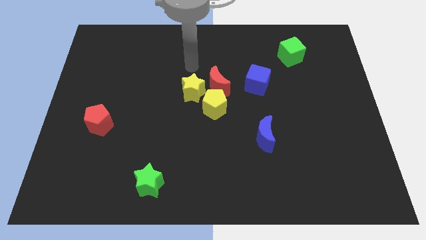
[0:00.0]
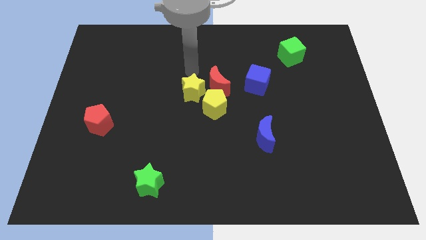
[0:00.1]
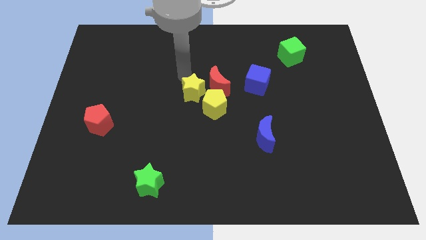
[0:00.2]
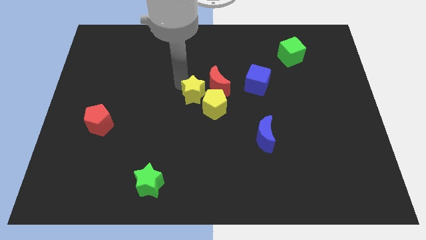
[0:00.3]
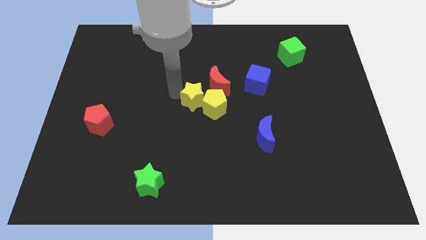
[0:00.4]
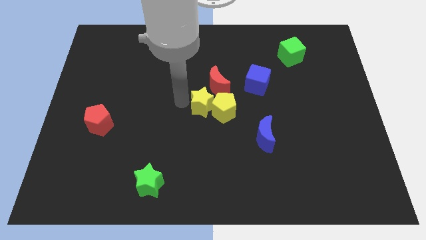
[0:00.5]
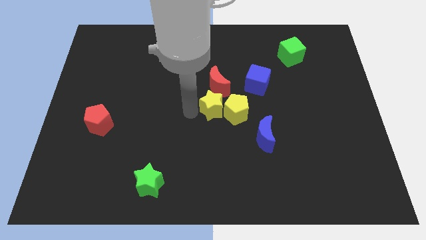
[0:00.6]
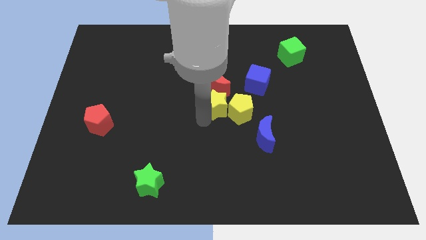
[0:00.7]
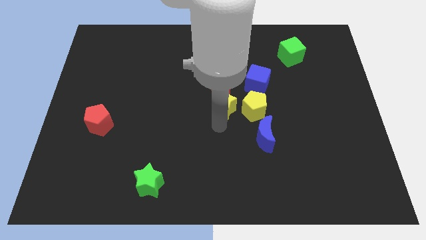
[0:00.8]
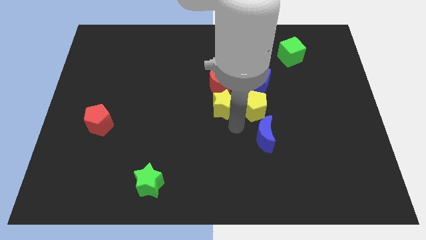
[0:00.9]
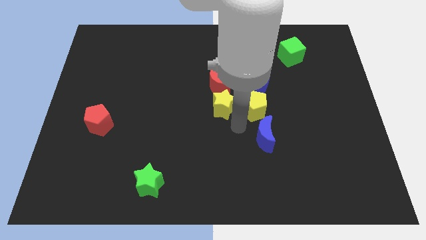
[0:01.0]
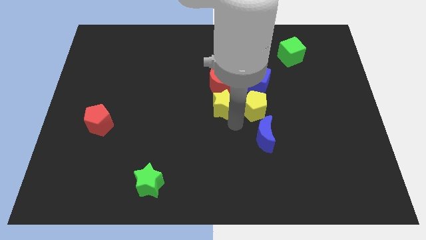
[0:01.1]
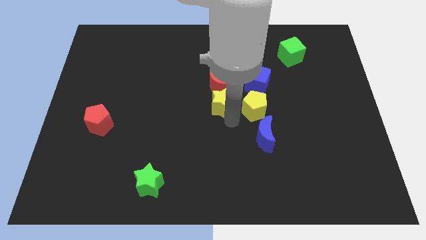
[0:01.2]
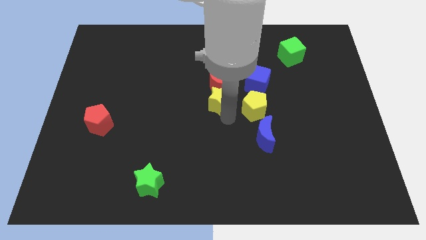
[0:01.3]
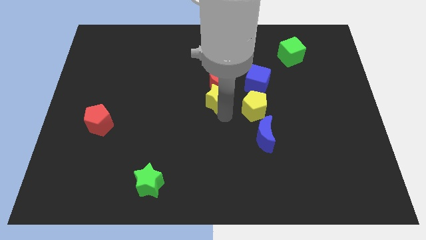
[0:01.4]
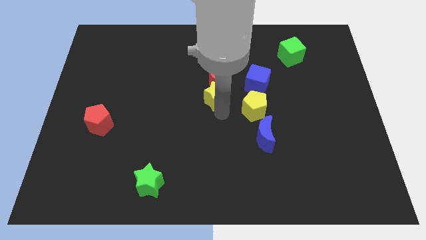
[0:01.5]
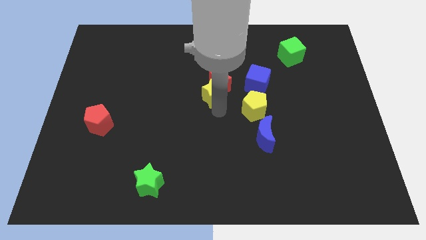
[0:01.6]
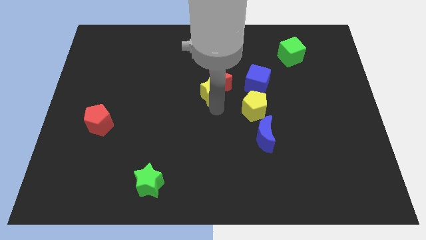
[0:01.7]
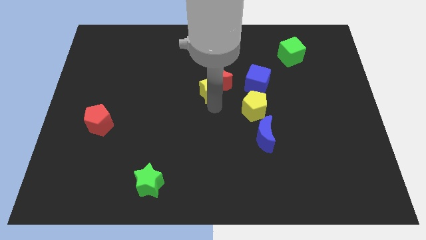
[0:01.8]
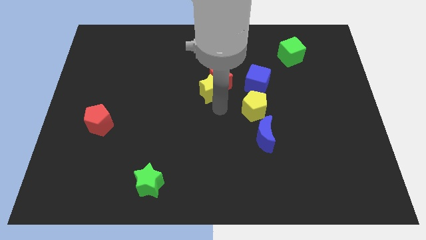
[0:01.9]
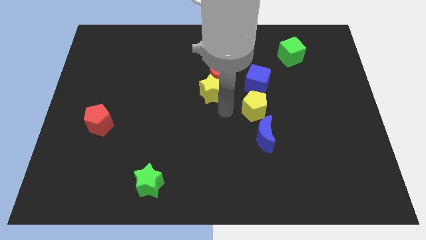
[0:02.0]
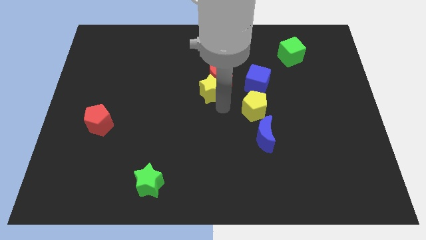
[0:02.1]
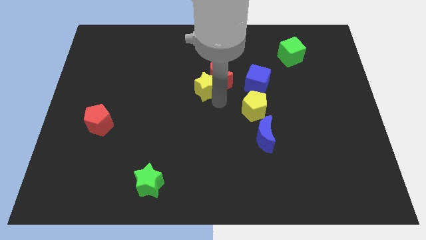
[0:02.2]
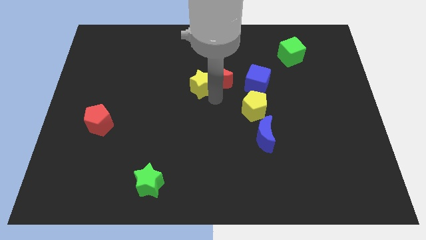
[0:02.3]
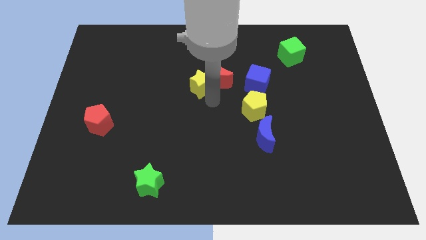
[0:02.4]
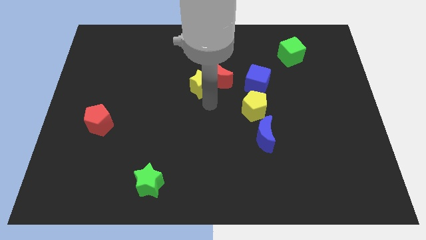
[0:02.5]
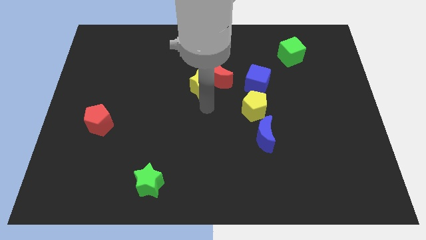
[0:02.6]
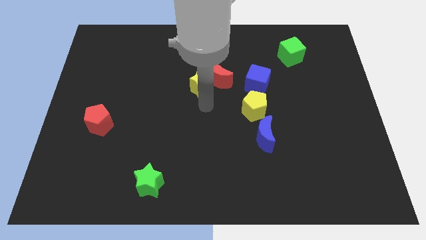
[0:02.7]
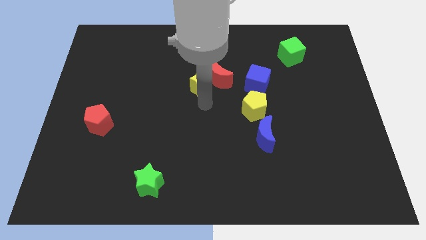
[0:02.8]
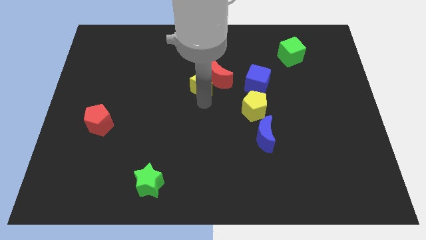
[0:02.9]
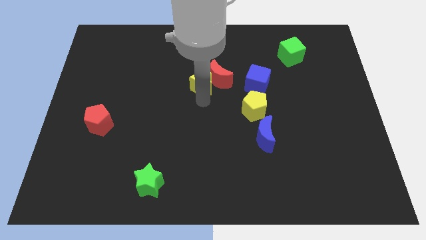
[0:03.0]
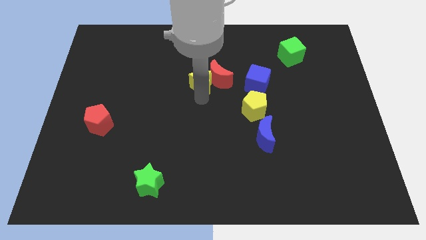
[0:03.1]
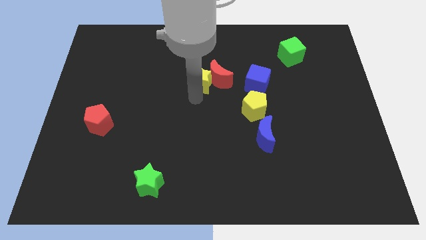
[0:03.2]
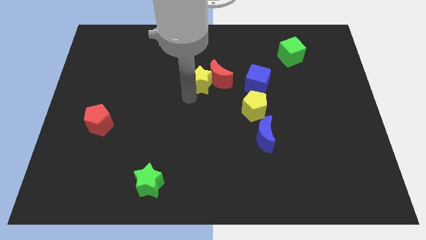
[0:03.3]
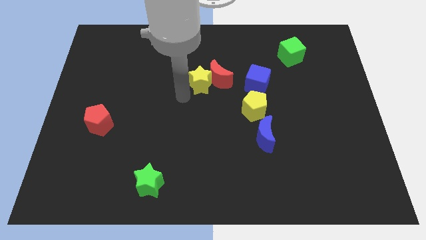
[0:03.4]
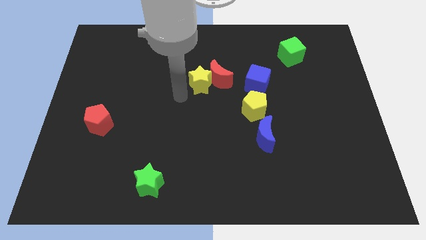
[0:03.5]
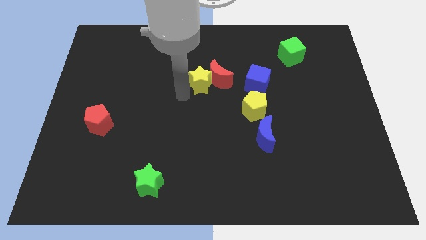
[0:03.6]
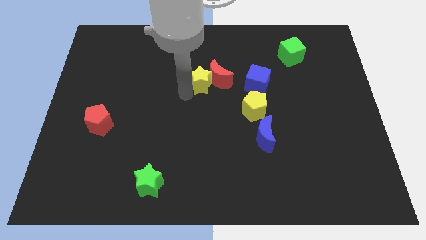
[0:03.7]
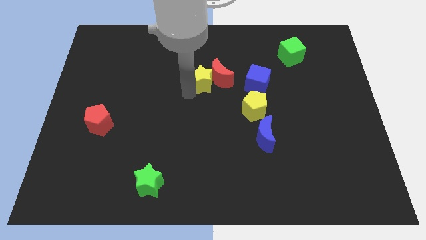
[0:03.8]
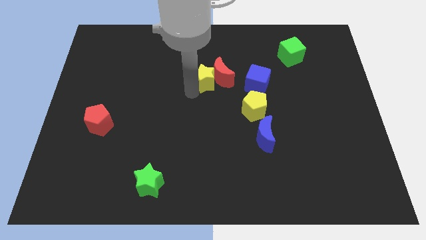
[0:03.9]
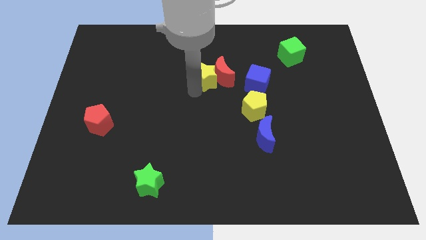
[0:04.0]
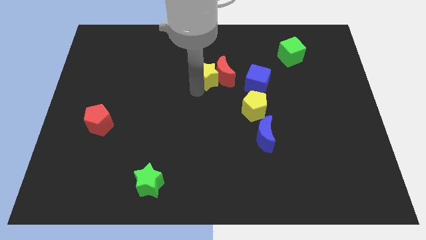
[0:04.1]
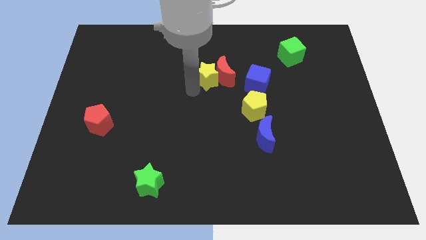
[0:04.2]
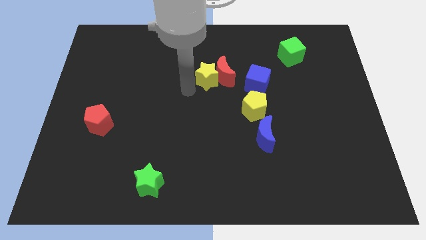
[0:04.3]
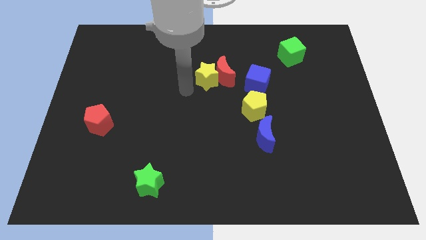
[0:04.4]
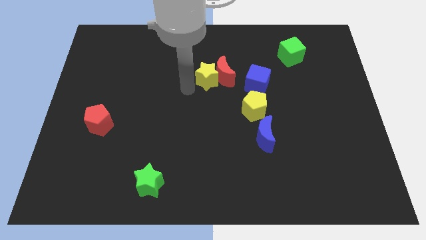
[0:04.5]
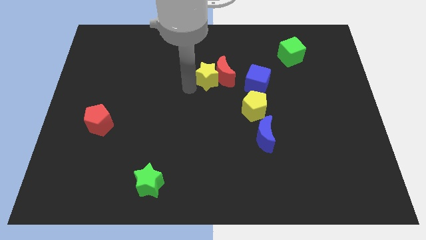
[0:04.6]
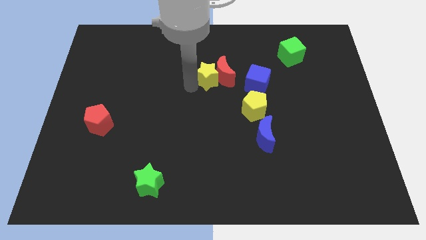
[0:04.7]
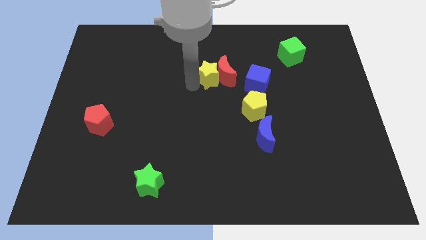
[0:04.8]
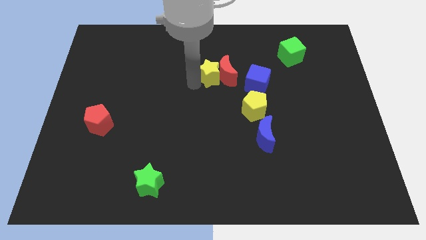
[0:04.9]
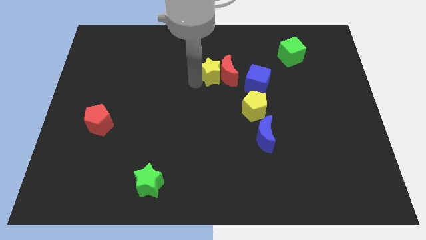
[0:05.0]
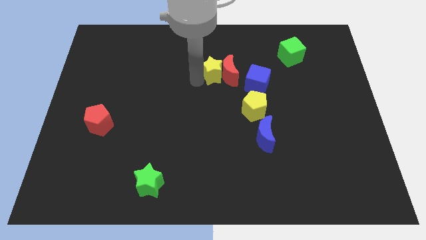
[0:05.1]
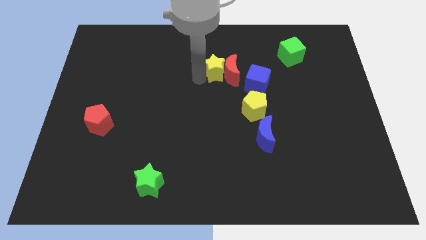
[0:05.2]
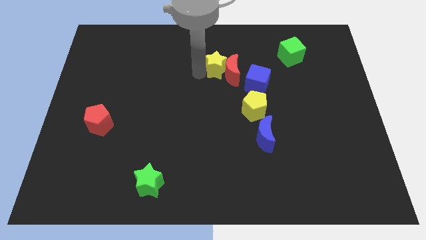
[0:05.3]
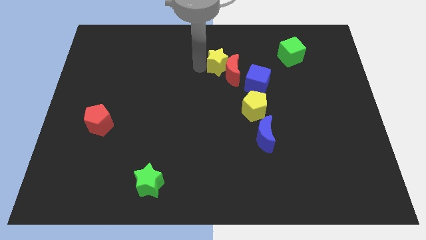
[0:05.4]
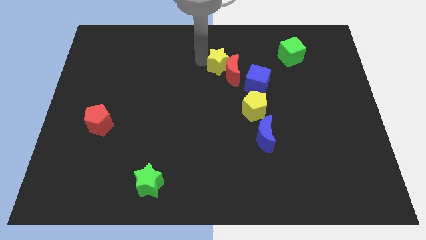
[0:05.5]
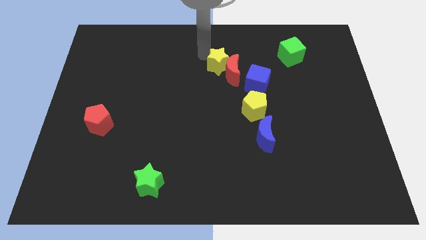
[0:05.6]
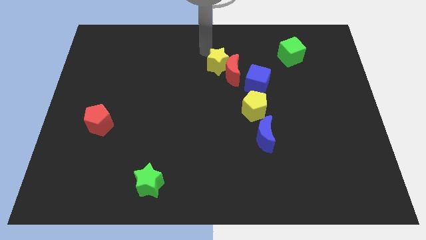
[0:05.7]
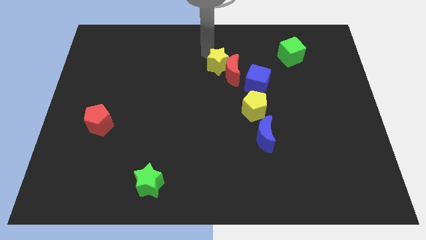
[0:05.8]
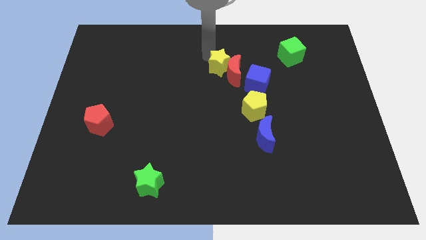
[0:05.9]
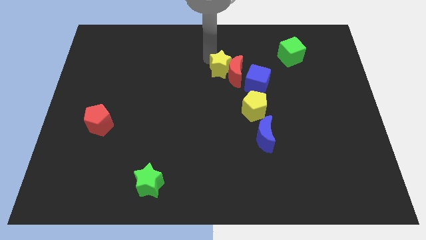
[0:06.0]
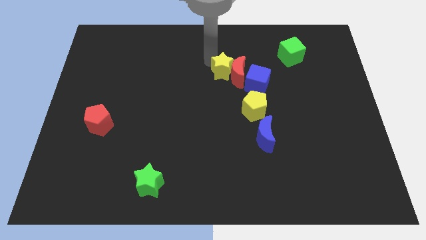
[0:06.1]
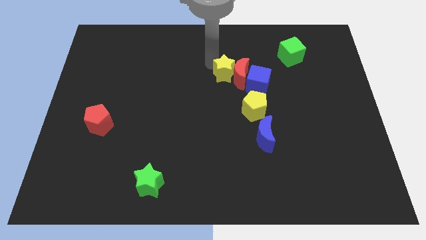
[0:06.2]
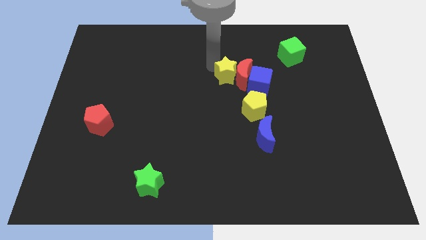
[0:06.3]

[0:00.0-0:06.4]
slightly move the yellow star to the right

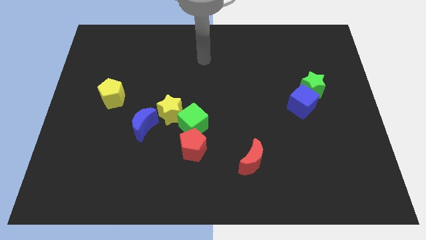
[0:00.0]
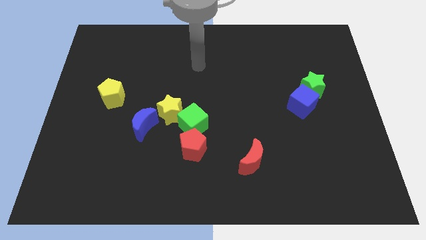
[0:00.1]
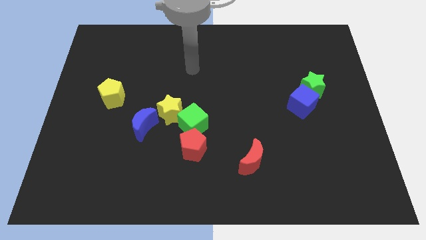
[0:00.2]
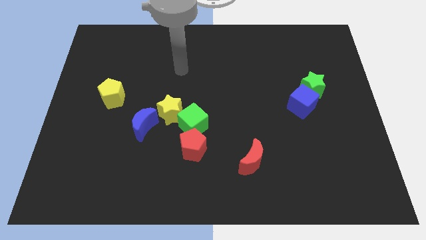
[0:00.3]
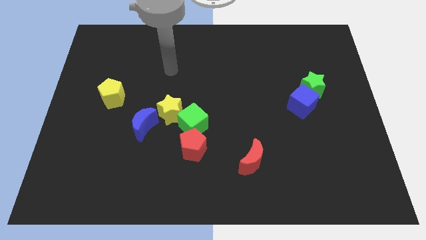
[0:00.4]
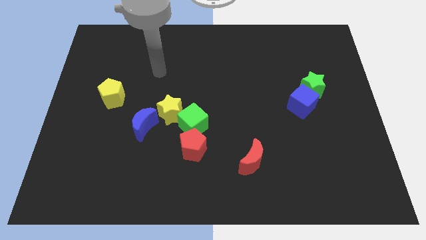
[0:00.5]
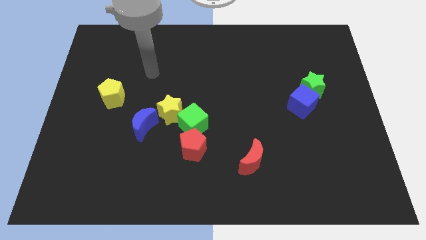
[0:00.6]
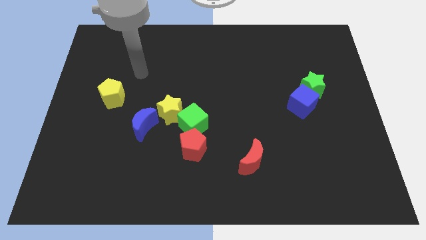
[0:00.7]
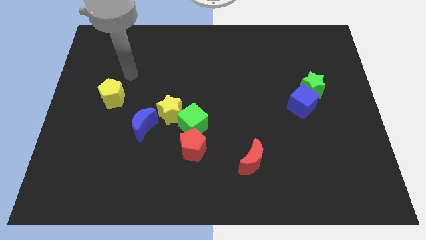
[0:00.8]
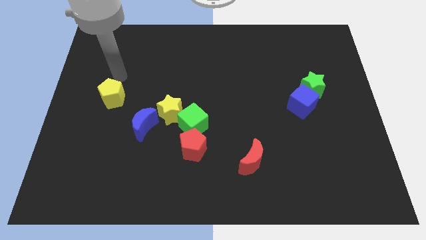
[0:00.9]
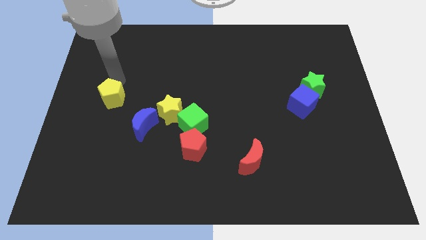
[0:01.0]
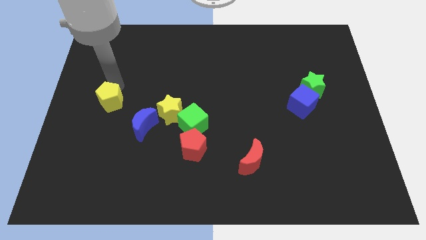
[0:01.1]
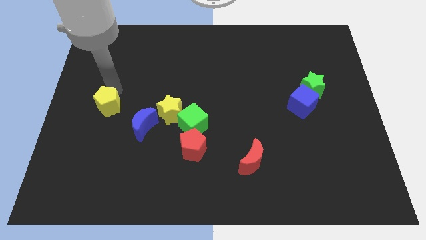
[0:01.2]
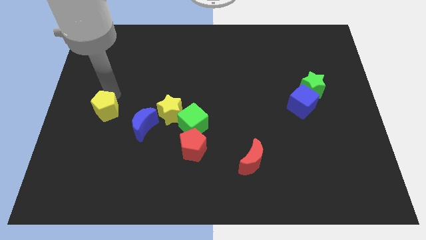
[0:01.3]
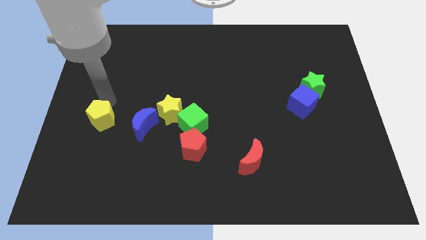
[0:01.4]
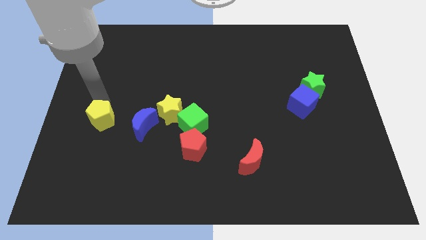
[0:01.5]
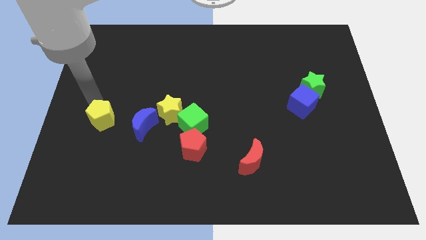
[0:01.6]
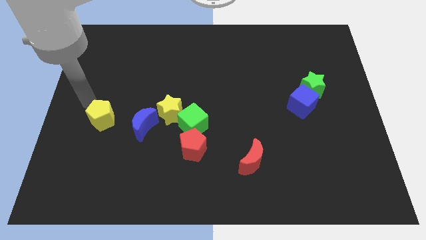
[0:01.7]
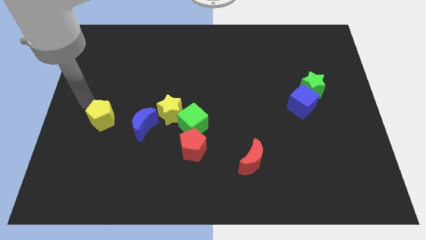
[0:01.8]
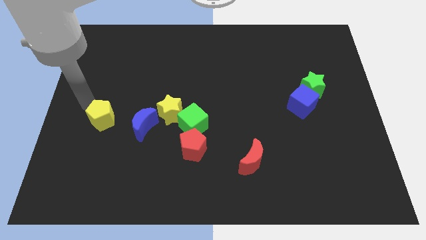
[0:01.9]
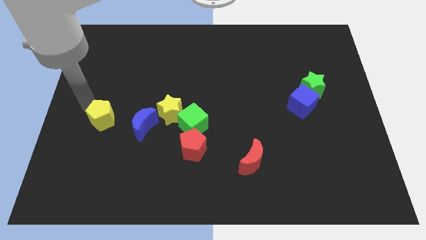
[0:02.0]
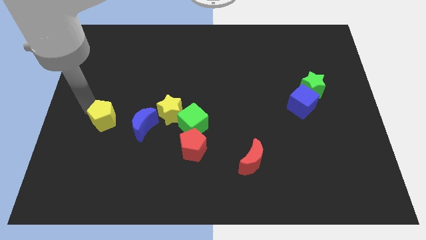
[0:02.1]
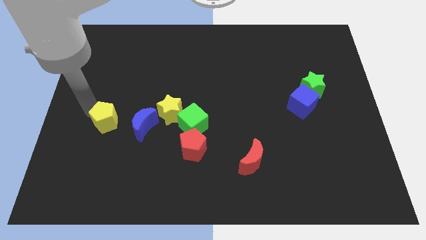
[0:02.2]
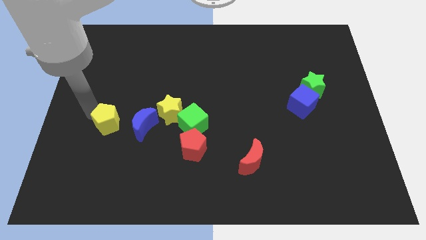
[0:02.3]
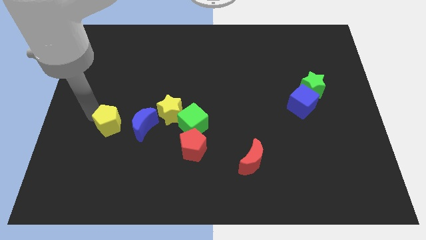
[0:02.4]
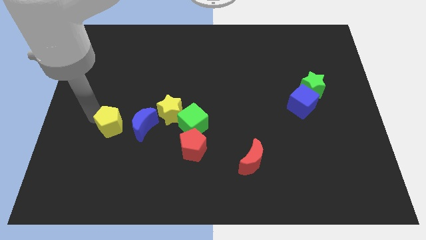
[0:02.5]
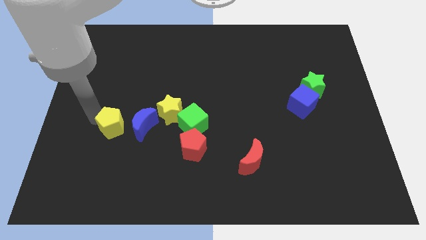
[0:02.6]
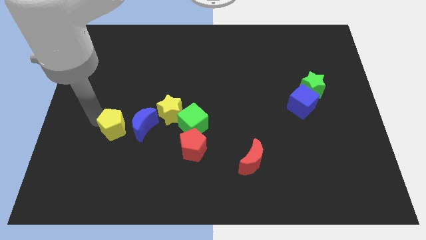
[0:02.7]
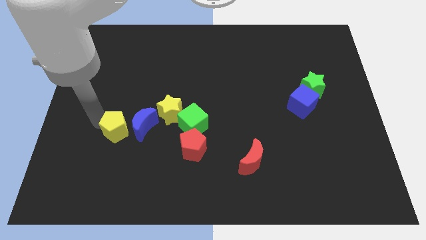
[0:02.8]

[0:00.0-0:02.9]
slide the yellow pentagon somewhat diagonally down and right
